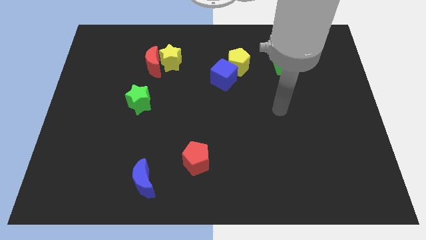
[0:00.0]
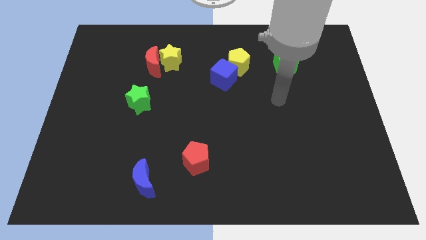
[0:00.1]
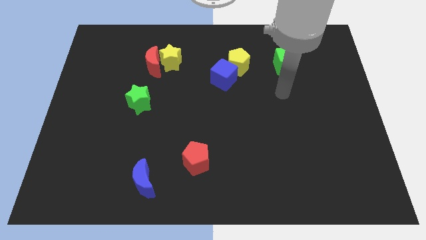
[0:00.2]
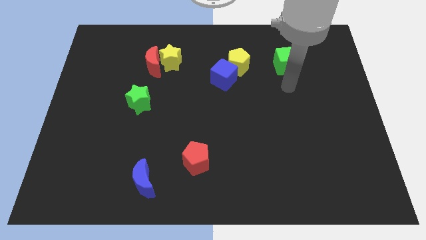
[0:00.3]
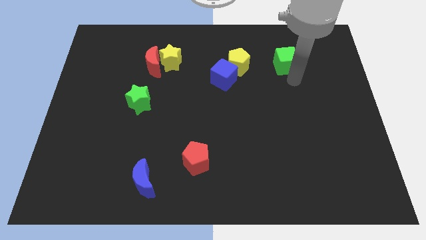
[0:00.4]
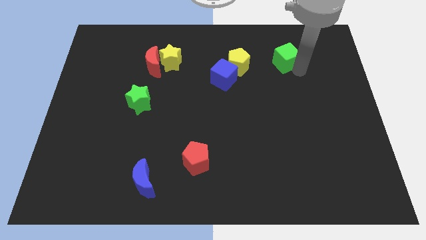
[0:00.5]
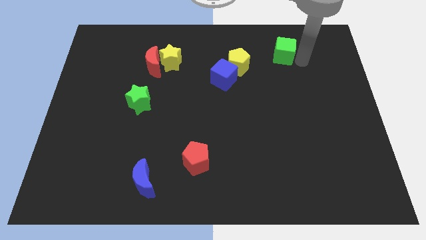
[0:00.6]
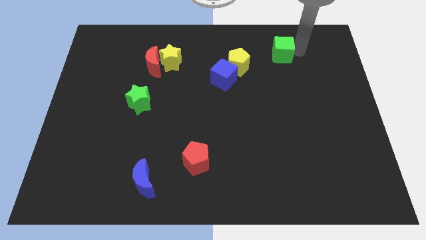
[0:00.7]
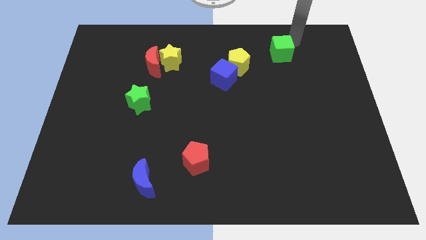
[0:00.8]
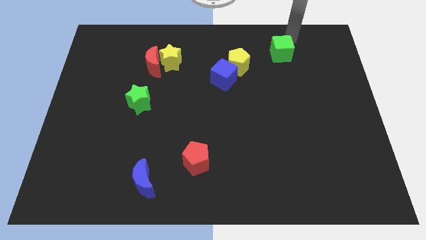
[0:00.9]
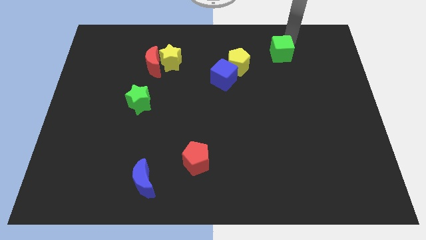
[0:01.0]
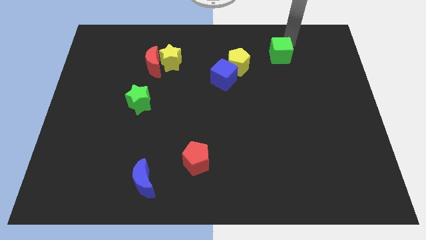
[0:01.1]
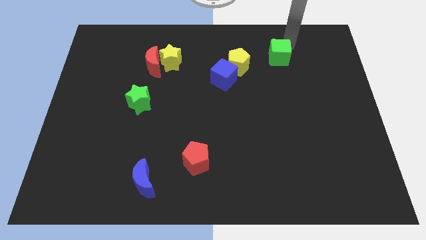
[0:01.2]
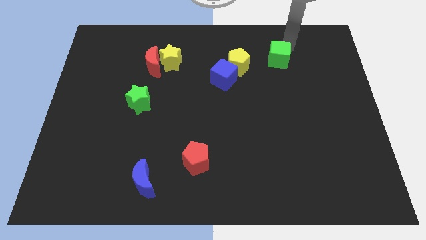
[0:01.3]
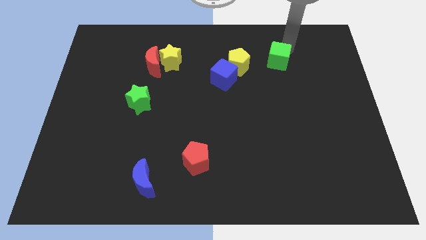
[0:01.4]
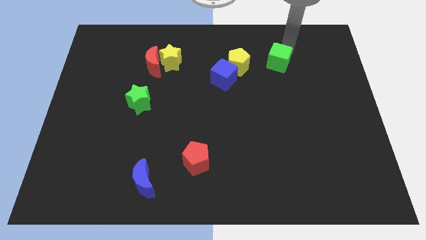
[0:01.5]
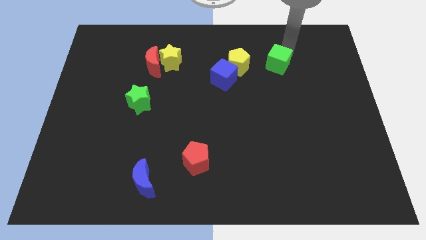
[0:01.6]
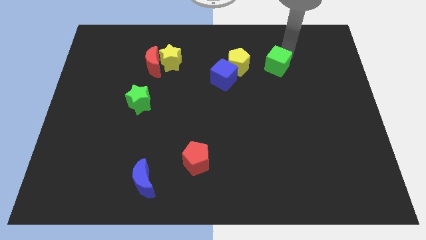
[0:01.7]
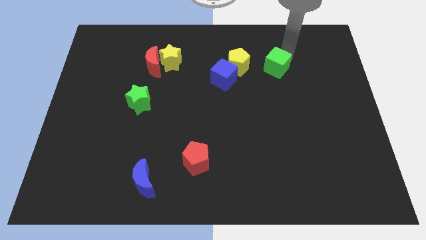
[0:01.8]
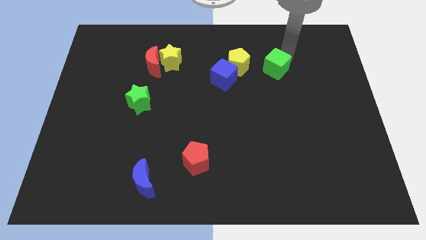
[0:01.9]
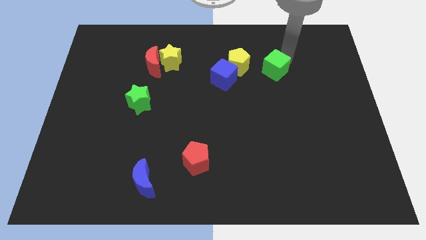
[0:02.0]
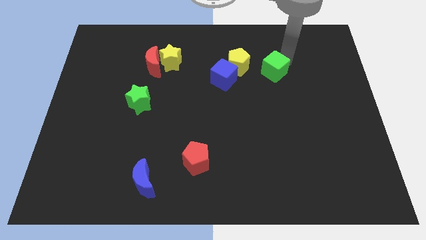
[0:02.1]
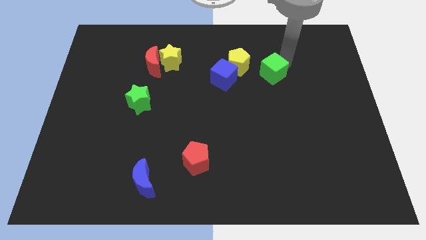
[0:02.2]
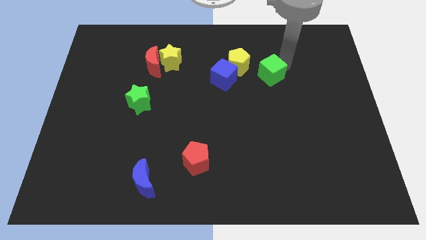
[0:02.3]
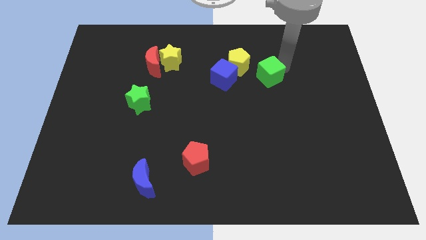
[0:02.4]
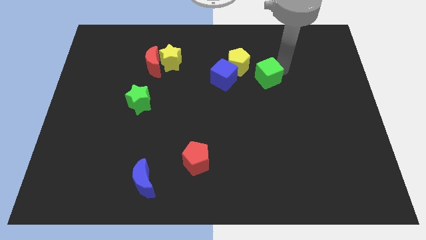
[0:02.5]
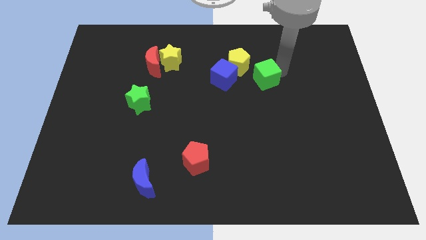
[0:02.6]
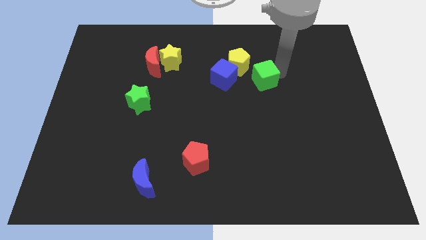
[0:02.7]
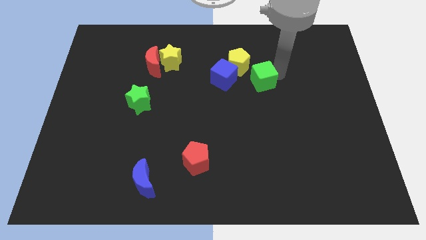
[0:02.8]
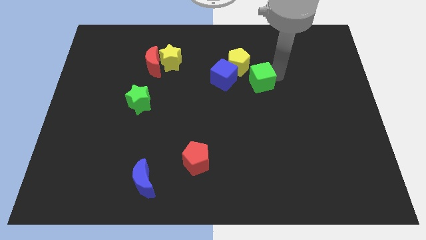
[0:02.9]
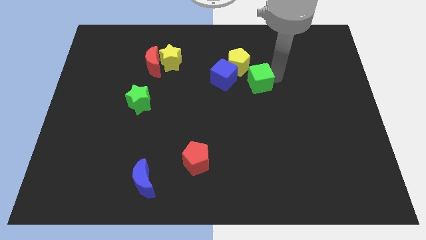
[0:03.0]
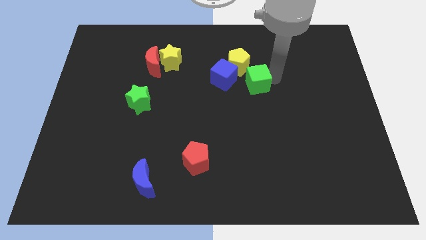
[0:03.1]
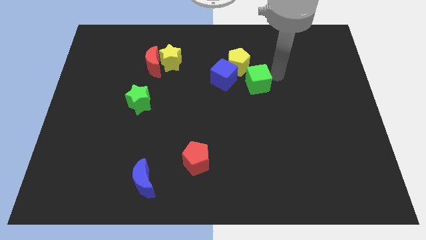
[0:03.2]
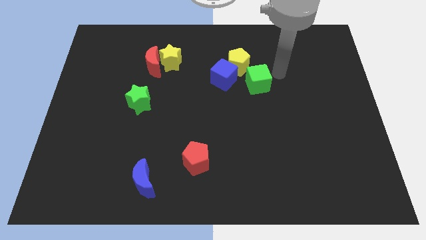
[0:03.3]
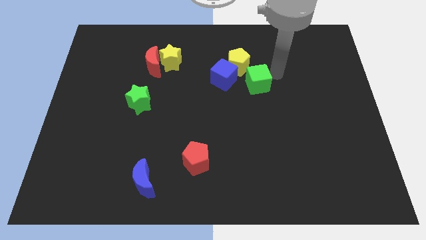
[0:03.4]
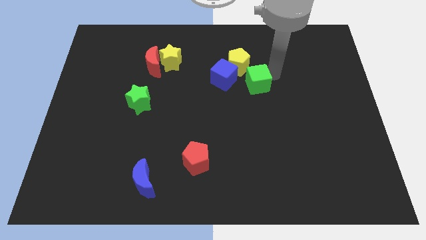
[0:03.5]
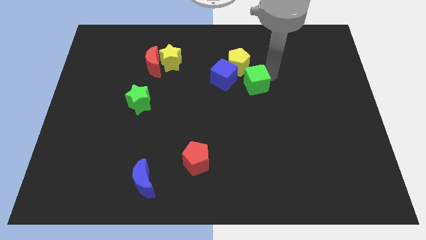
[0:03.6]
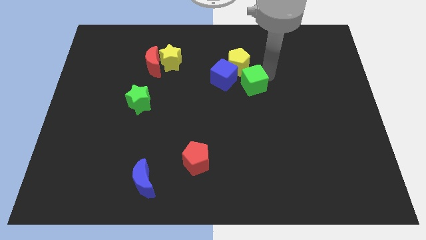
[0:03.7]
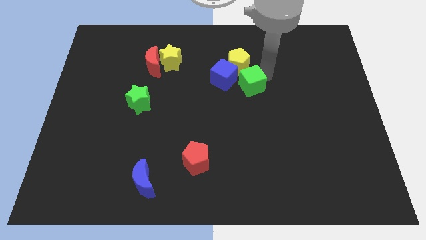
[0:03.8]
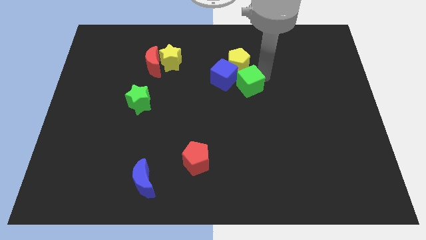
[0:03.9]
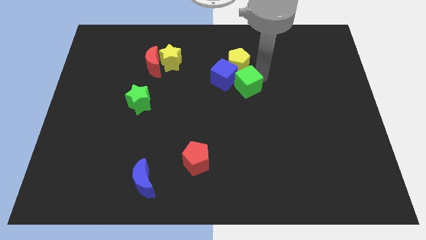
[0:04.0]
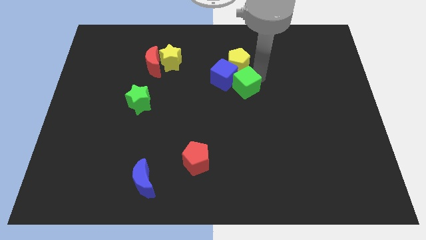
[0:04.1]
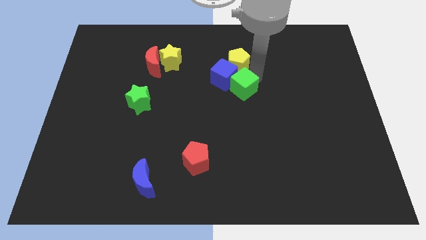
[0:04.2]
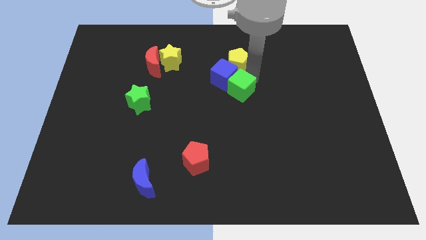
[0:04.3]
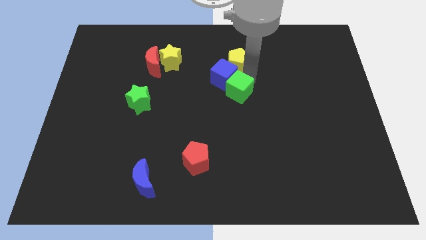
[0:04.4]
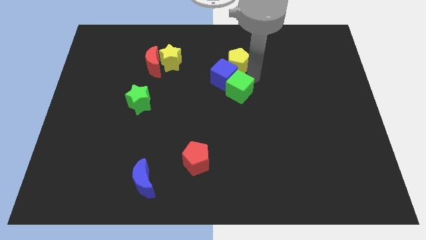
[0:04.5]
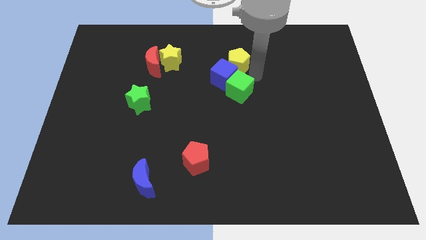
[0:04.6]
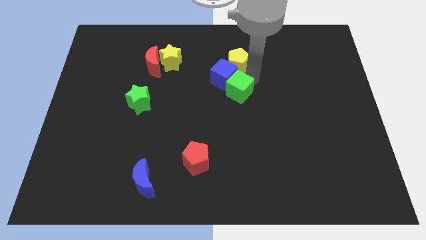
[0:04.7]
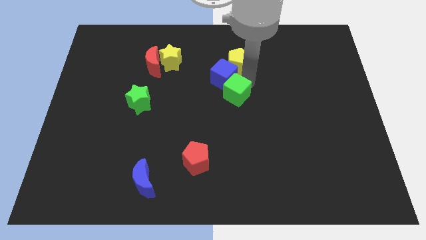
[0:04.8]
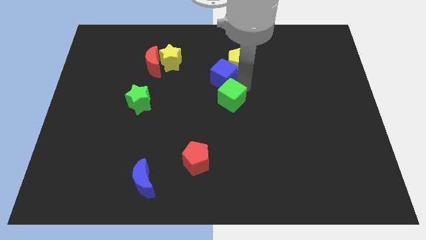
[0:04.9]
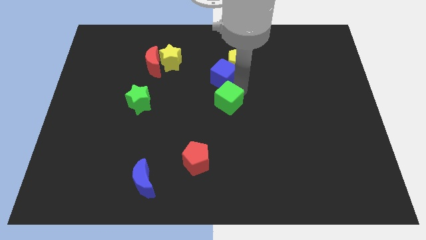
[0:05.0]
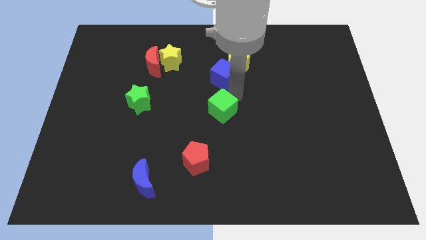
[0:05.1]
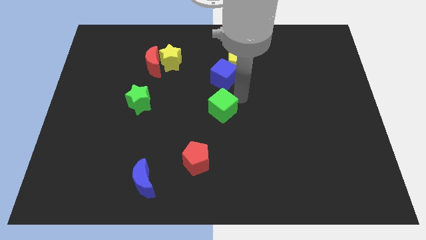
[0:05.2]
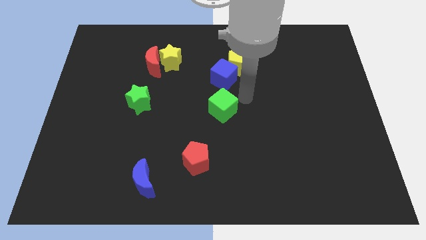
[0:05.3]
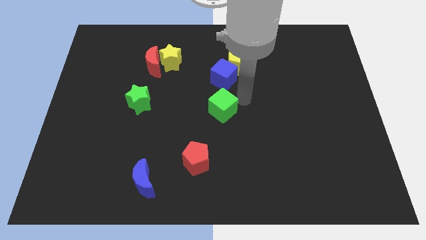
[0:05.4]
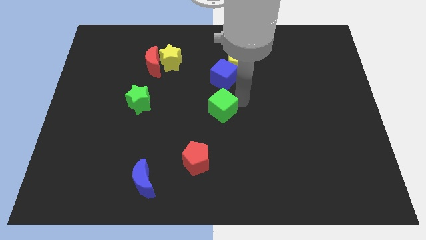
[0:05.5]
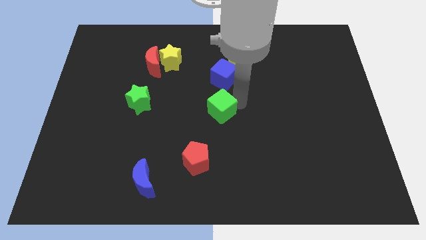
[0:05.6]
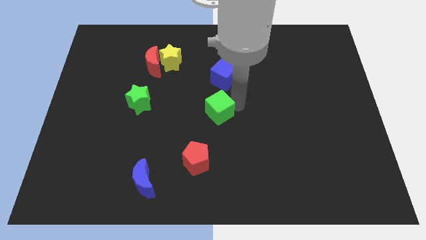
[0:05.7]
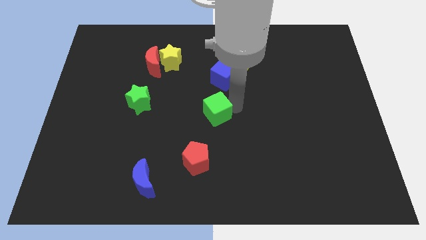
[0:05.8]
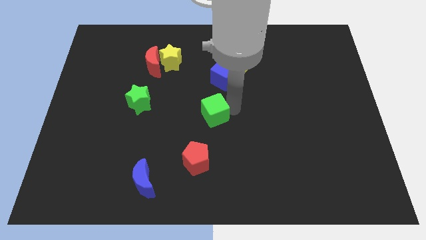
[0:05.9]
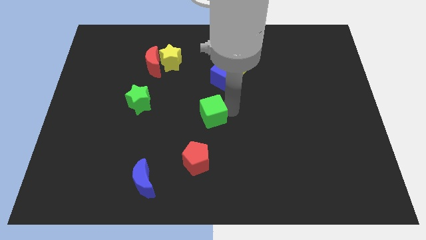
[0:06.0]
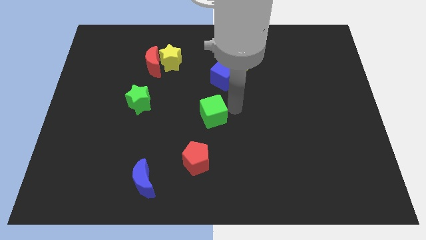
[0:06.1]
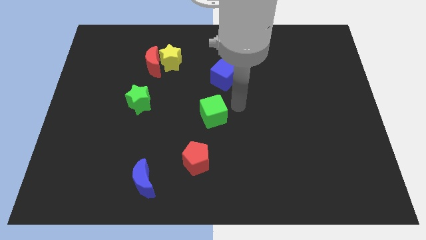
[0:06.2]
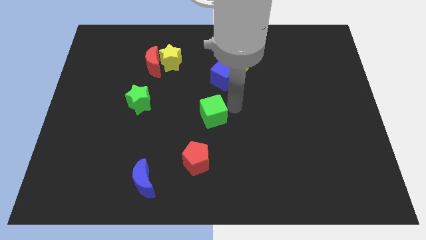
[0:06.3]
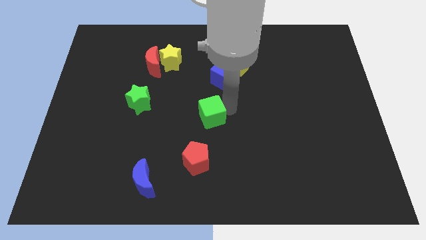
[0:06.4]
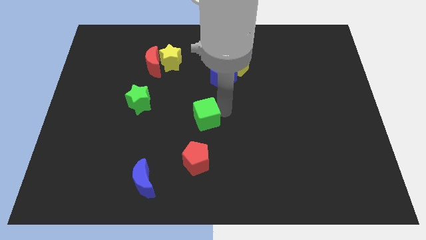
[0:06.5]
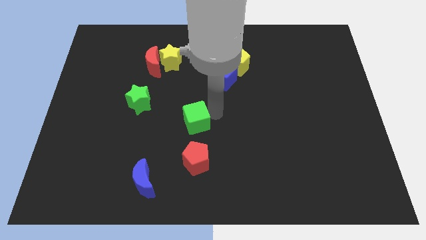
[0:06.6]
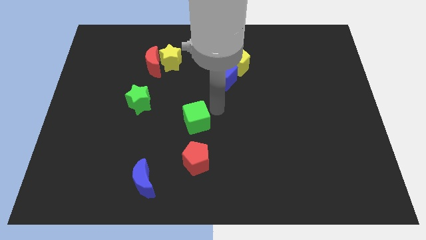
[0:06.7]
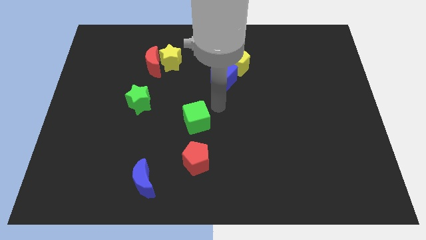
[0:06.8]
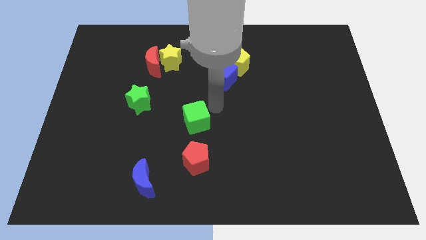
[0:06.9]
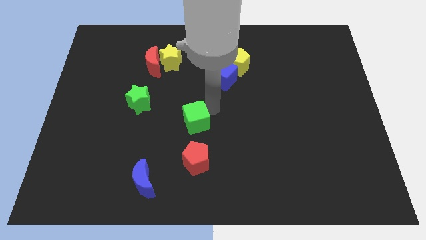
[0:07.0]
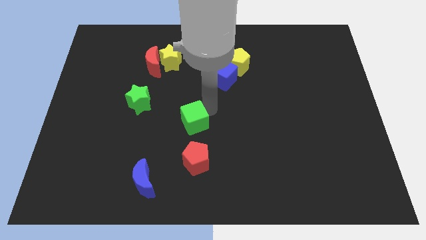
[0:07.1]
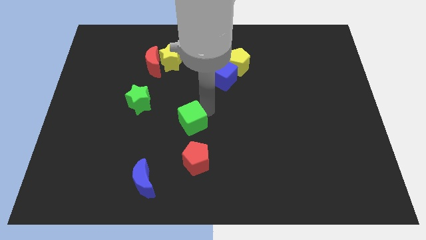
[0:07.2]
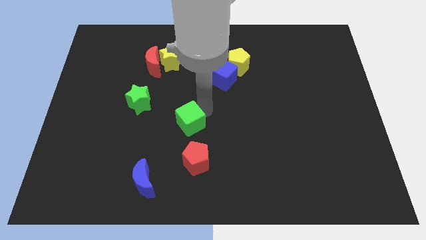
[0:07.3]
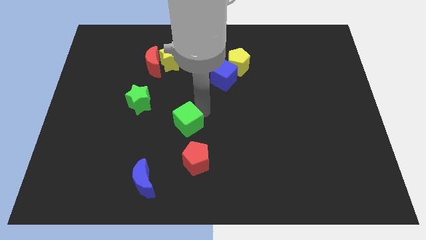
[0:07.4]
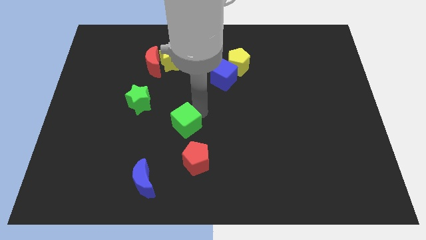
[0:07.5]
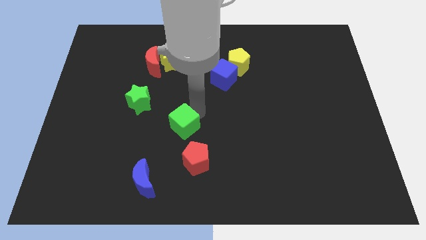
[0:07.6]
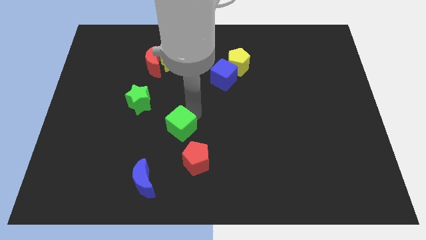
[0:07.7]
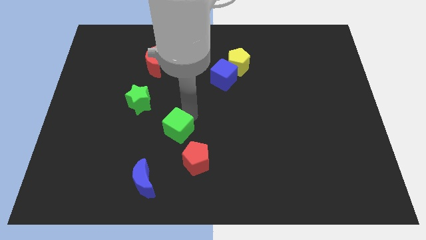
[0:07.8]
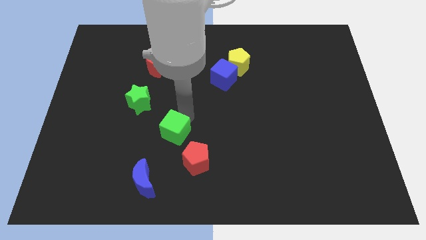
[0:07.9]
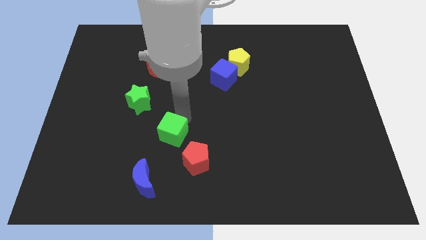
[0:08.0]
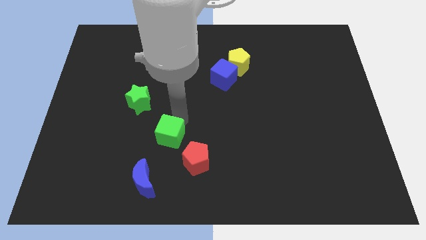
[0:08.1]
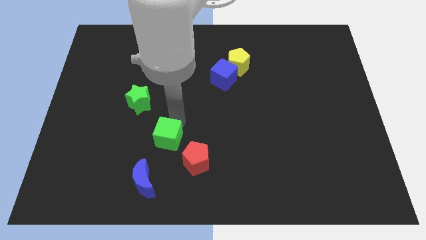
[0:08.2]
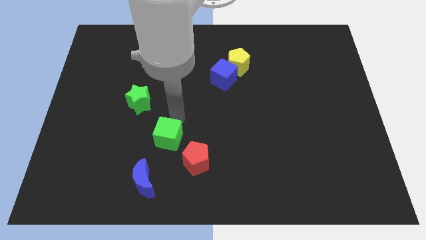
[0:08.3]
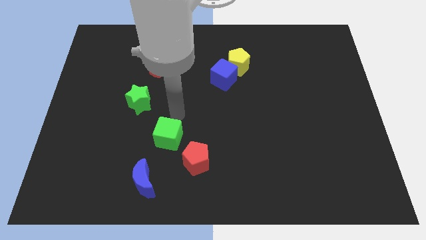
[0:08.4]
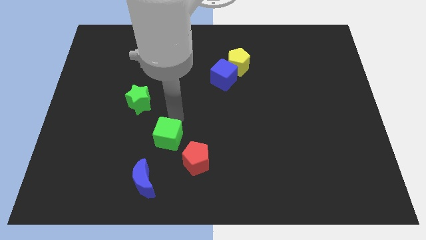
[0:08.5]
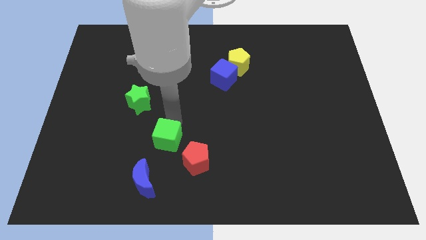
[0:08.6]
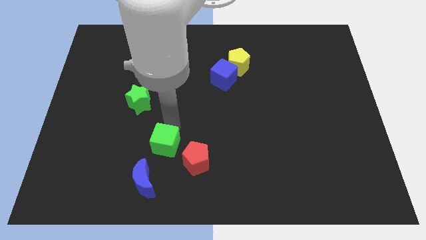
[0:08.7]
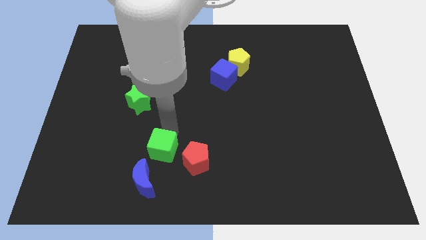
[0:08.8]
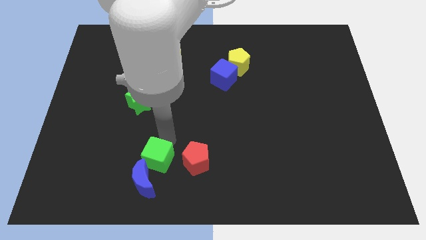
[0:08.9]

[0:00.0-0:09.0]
move the green cube close to the blue moon
